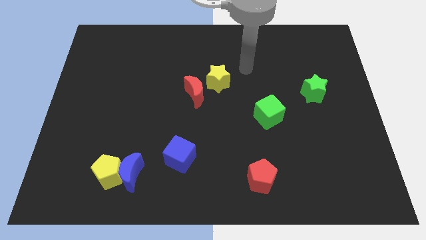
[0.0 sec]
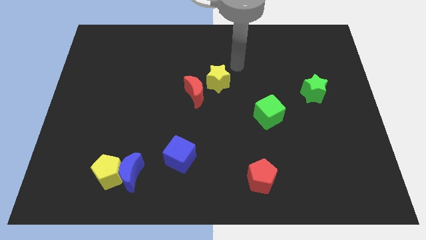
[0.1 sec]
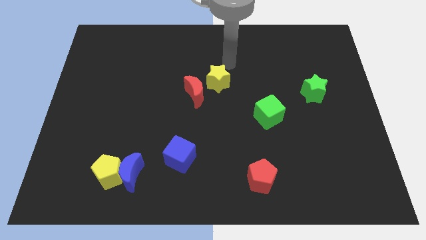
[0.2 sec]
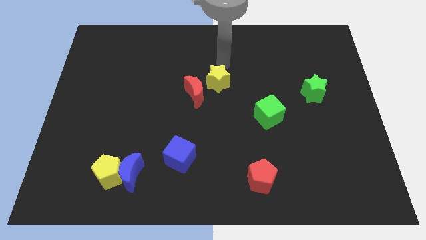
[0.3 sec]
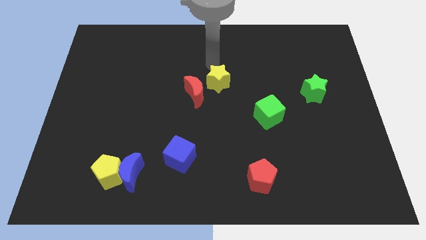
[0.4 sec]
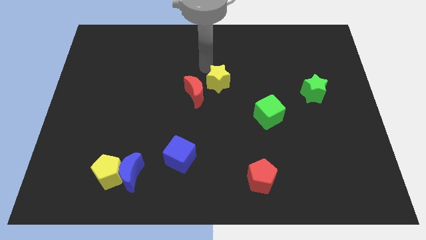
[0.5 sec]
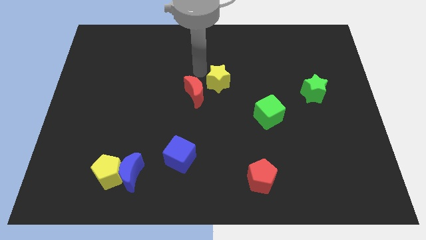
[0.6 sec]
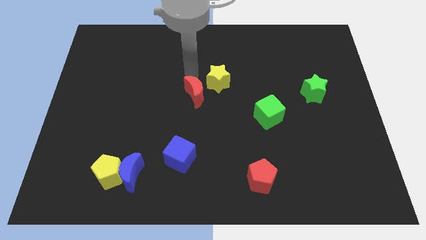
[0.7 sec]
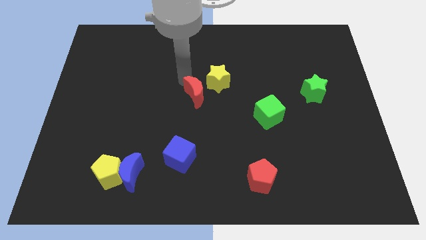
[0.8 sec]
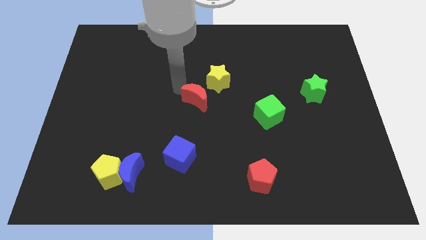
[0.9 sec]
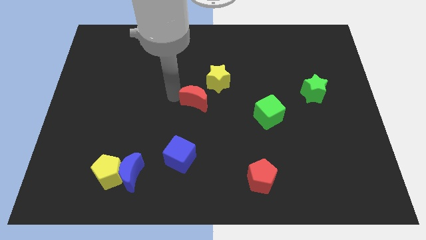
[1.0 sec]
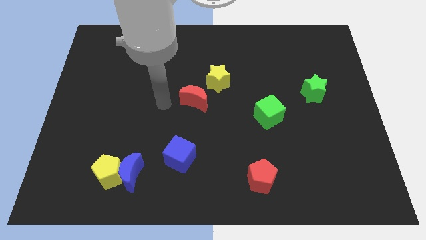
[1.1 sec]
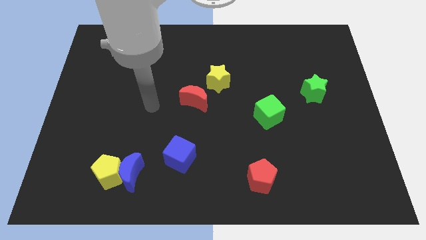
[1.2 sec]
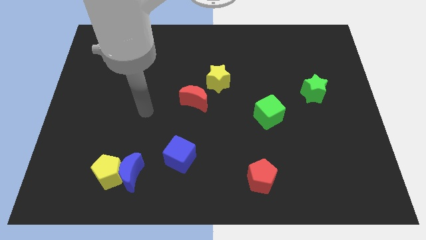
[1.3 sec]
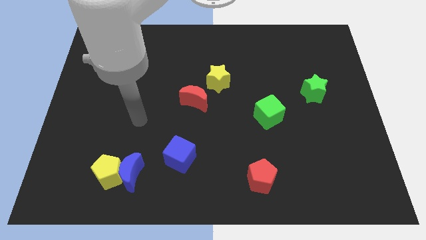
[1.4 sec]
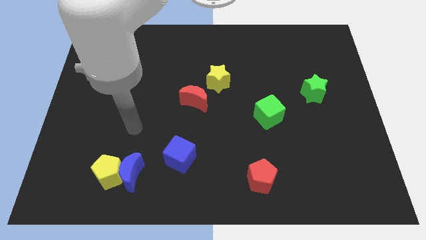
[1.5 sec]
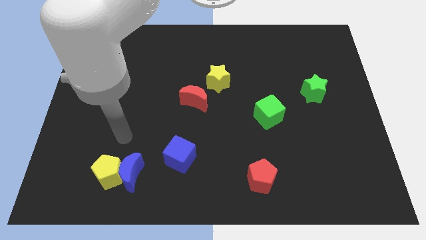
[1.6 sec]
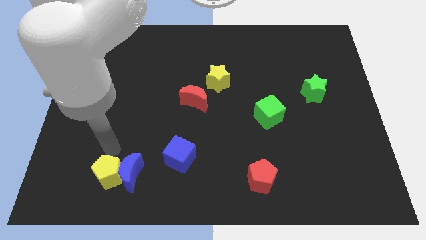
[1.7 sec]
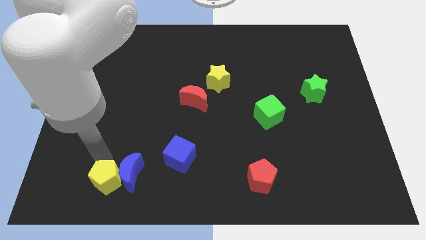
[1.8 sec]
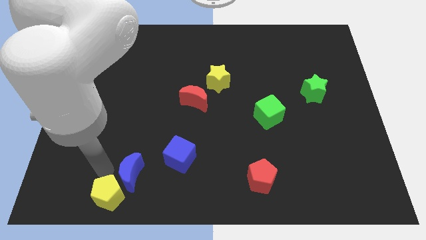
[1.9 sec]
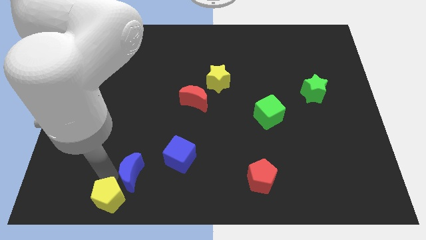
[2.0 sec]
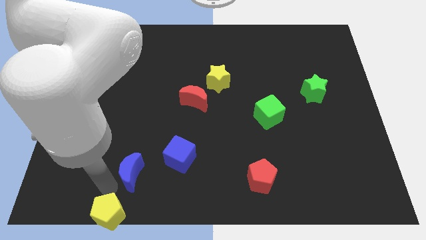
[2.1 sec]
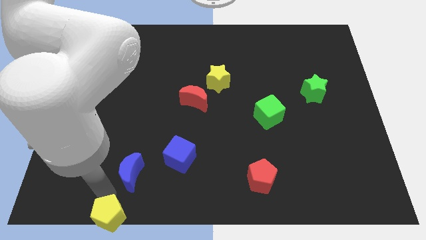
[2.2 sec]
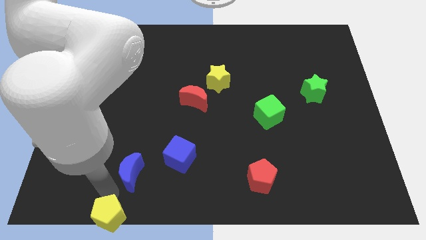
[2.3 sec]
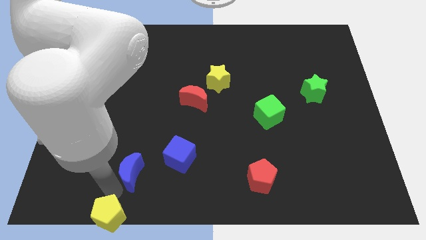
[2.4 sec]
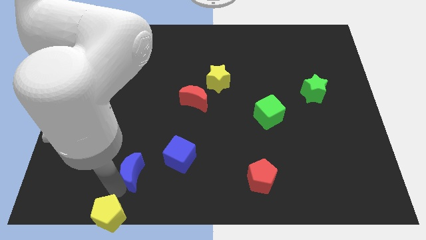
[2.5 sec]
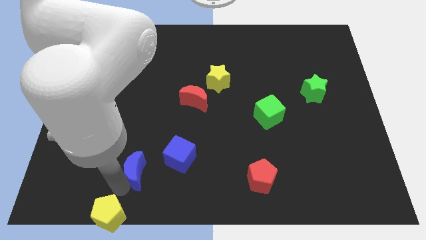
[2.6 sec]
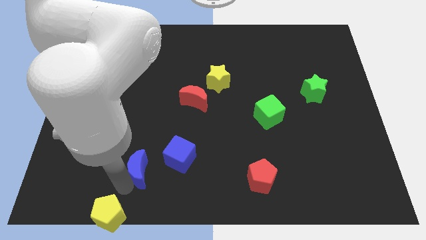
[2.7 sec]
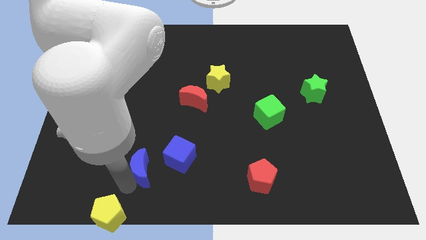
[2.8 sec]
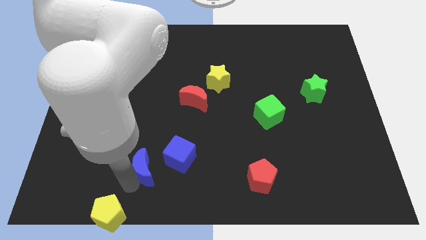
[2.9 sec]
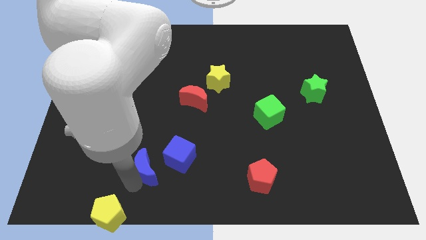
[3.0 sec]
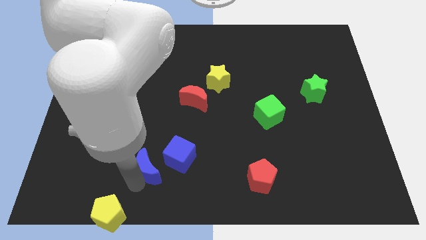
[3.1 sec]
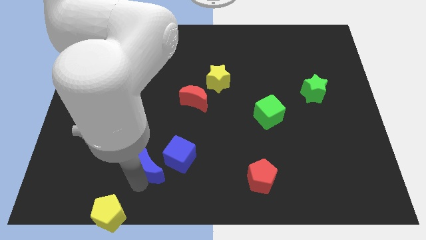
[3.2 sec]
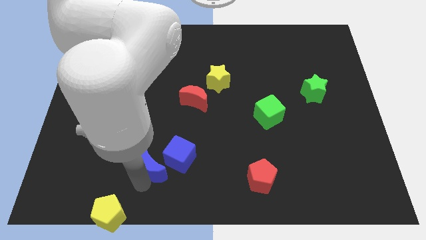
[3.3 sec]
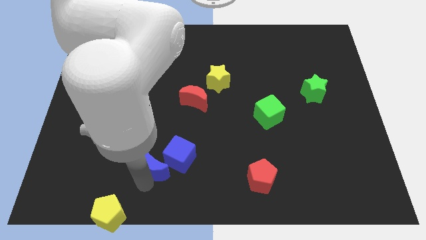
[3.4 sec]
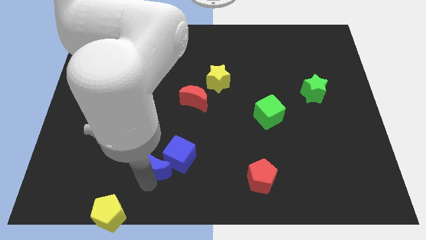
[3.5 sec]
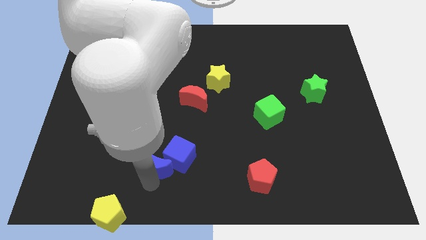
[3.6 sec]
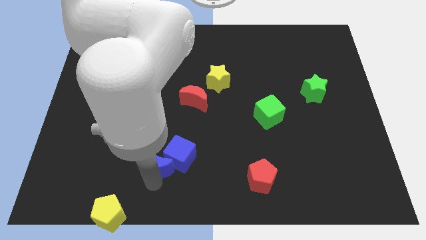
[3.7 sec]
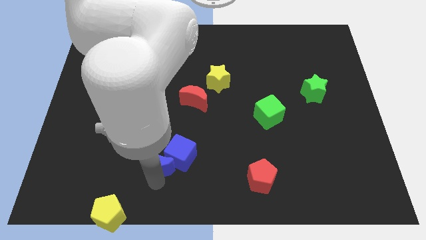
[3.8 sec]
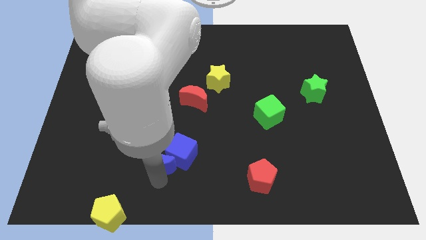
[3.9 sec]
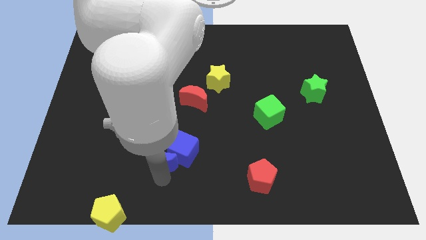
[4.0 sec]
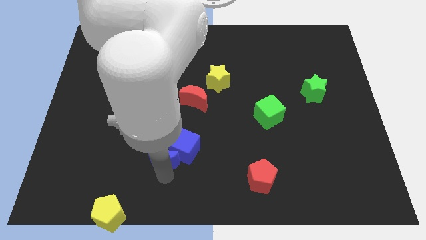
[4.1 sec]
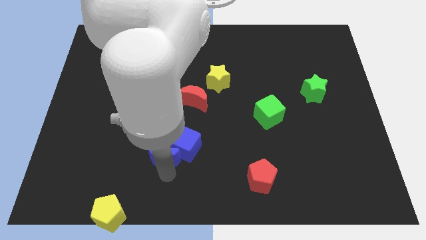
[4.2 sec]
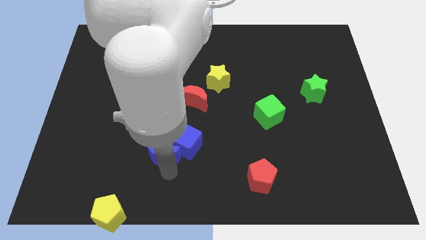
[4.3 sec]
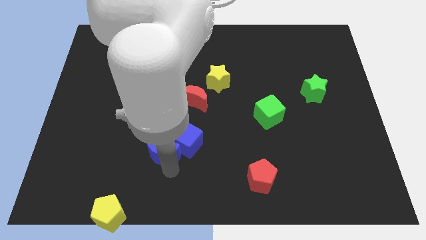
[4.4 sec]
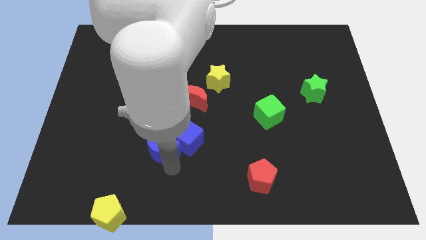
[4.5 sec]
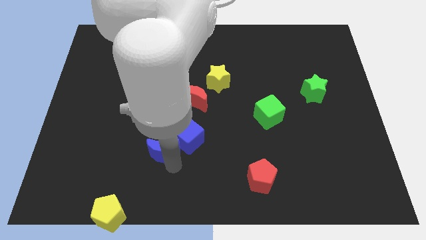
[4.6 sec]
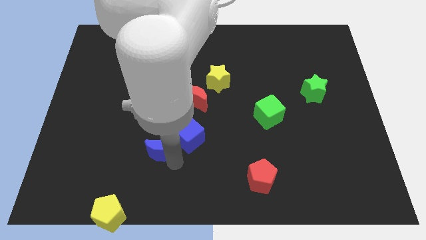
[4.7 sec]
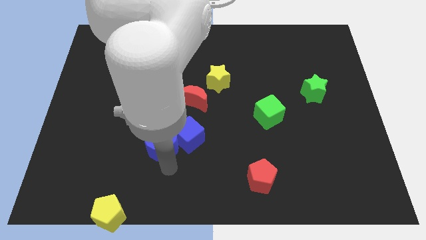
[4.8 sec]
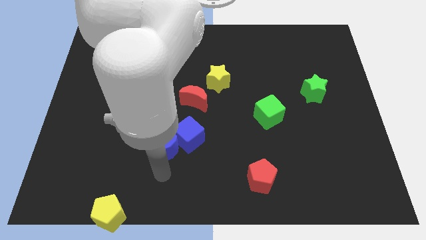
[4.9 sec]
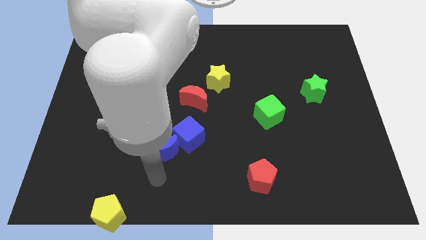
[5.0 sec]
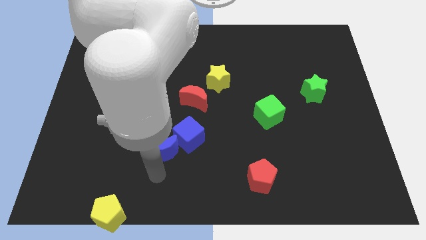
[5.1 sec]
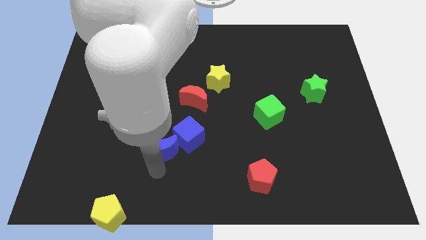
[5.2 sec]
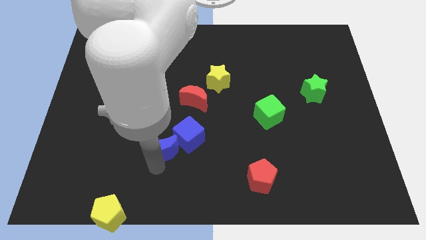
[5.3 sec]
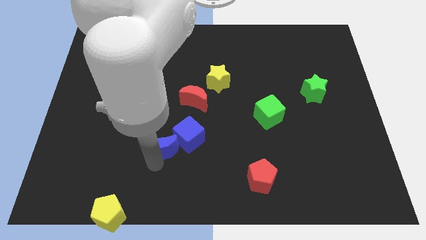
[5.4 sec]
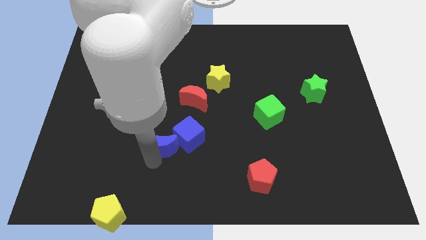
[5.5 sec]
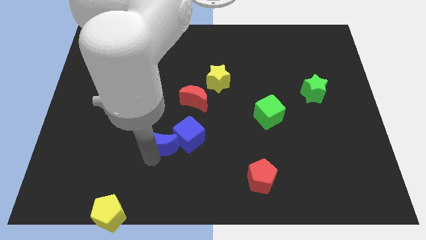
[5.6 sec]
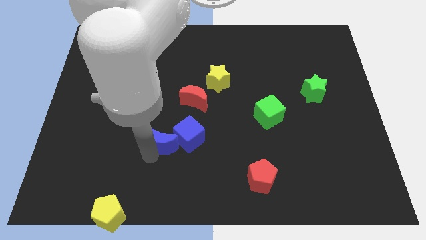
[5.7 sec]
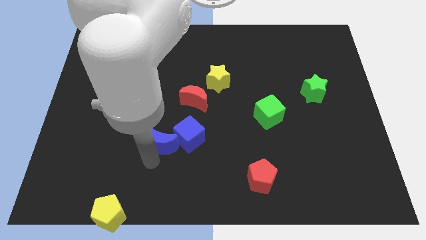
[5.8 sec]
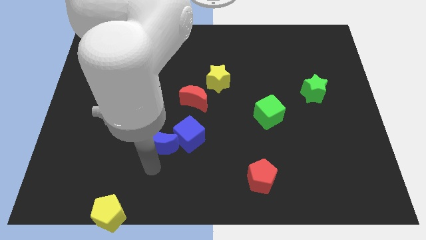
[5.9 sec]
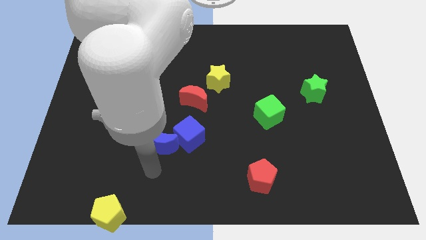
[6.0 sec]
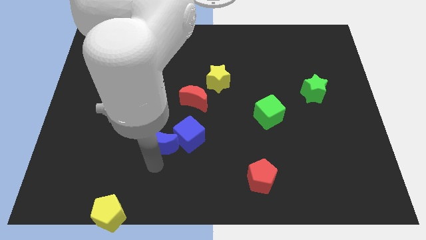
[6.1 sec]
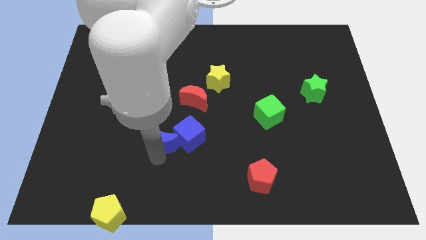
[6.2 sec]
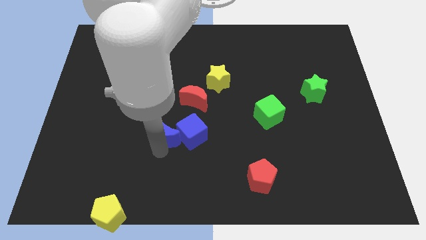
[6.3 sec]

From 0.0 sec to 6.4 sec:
move the blue moon to the bottom left of the red moon

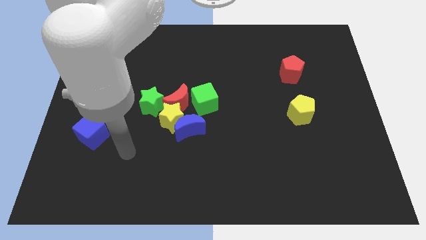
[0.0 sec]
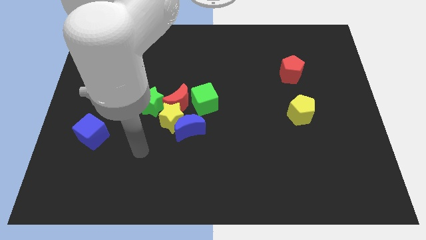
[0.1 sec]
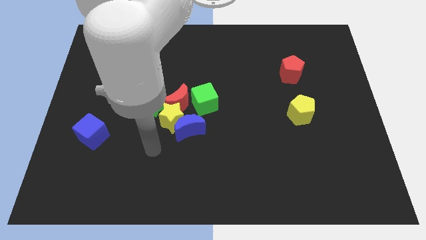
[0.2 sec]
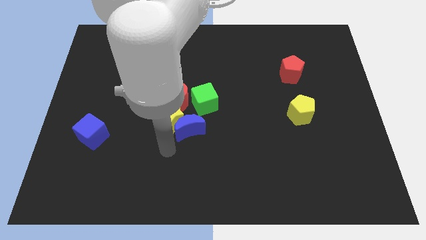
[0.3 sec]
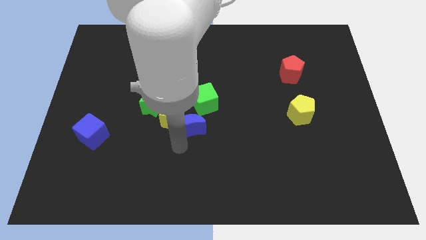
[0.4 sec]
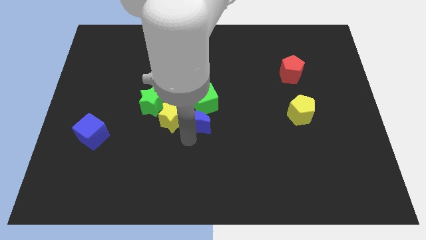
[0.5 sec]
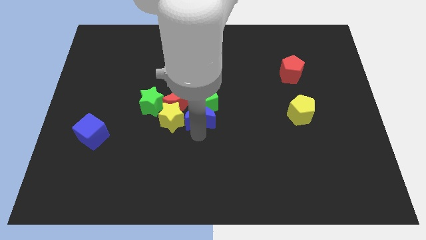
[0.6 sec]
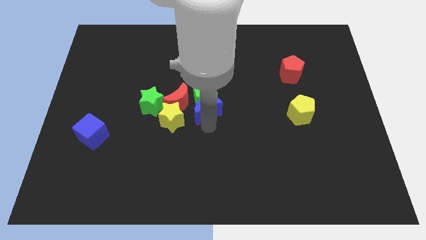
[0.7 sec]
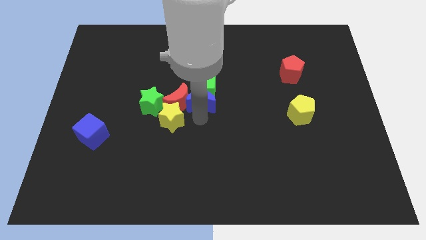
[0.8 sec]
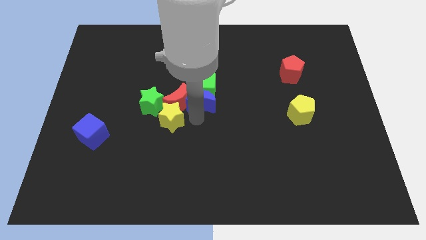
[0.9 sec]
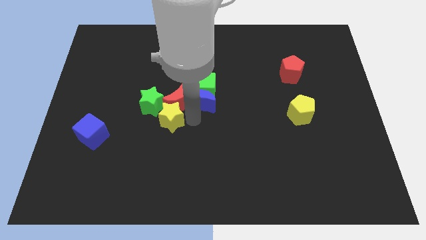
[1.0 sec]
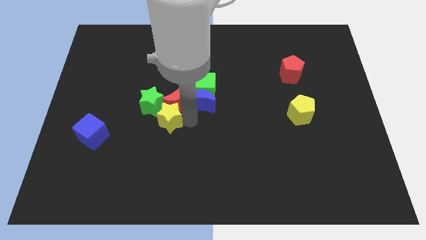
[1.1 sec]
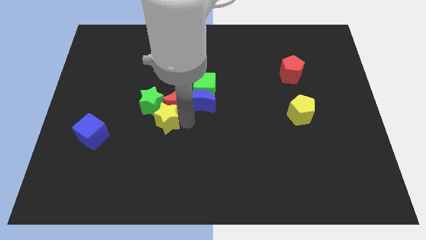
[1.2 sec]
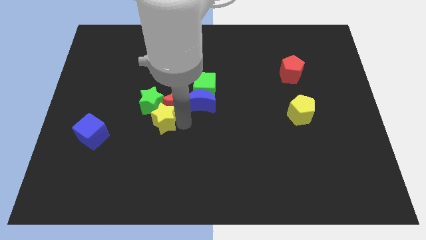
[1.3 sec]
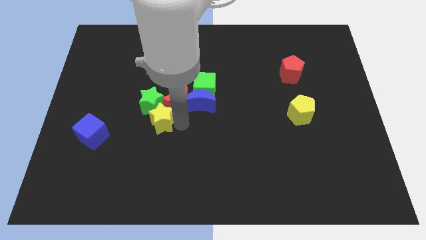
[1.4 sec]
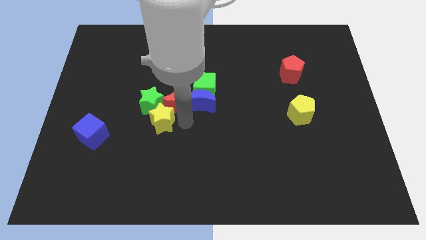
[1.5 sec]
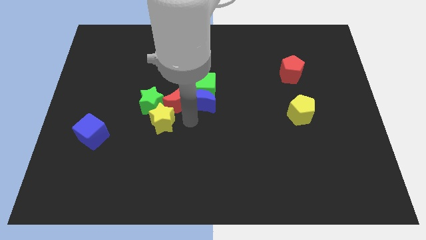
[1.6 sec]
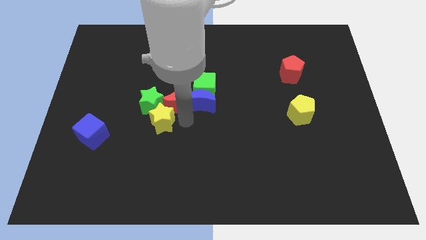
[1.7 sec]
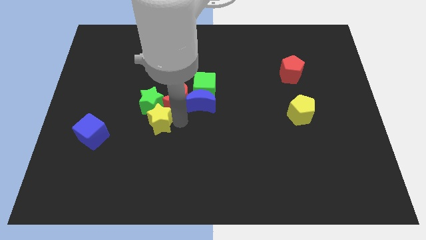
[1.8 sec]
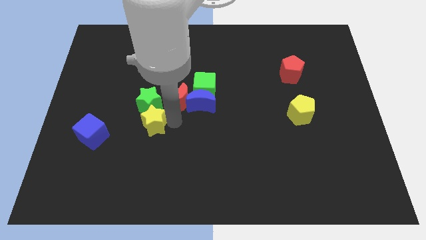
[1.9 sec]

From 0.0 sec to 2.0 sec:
put the yellow star diagonally down and to the left of the green star

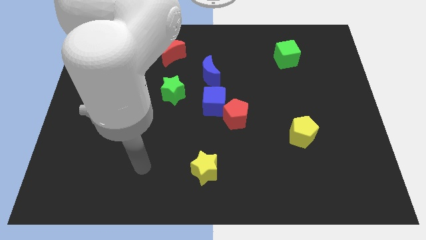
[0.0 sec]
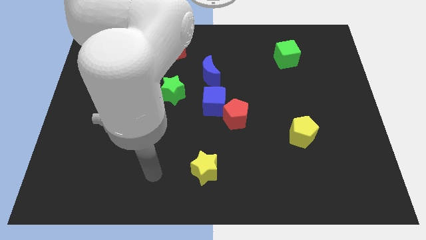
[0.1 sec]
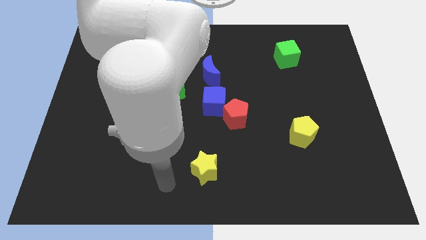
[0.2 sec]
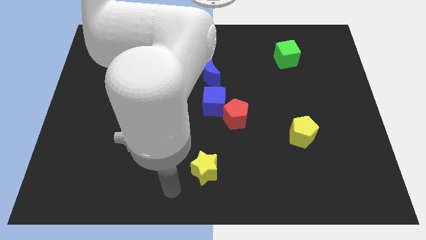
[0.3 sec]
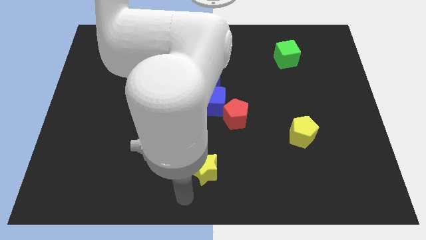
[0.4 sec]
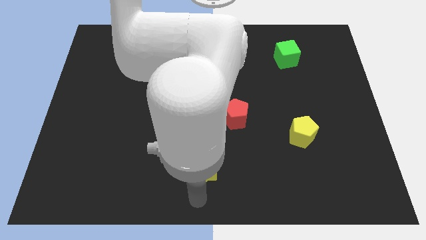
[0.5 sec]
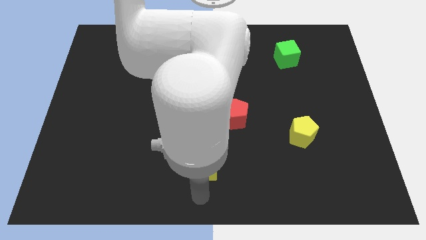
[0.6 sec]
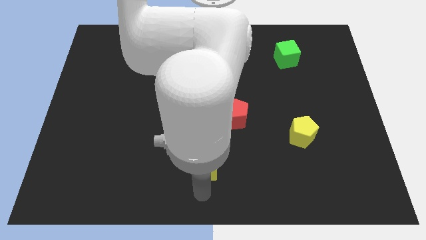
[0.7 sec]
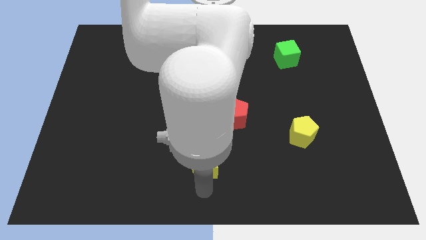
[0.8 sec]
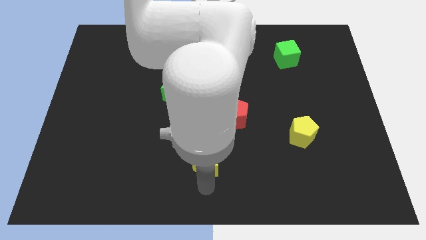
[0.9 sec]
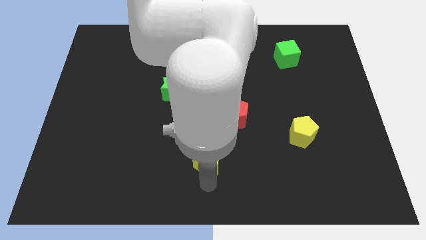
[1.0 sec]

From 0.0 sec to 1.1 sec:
move the yellow star below the blue cube
